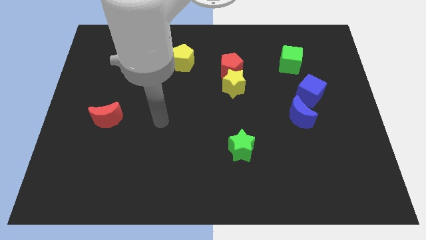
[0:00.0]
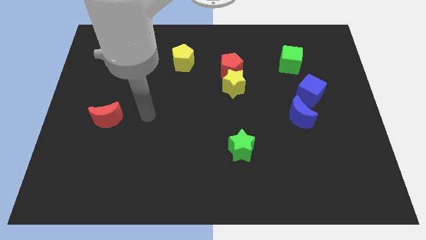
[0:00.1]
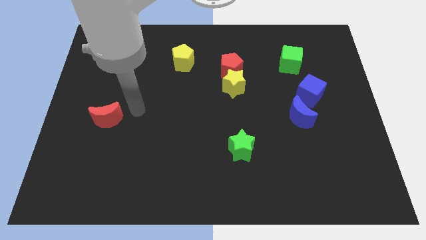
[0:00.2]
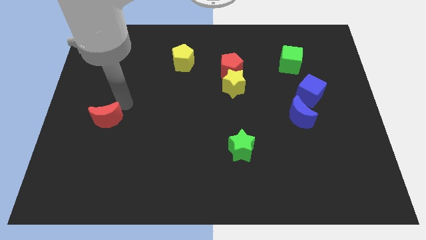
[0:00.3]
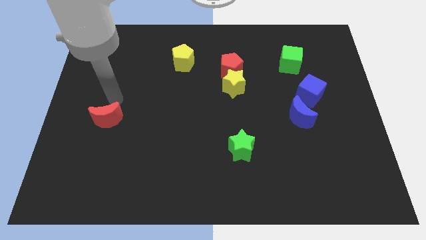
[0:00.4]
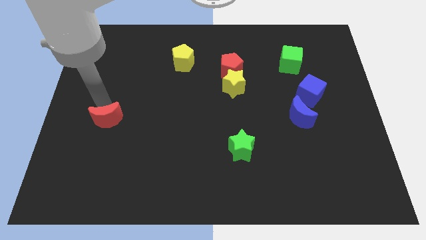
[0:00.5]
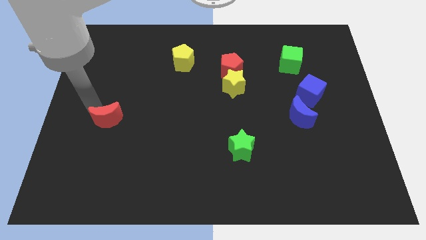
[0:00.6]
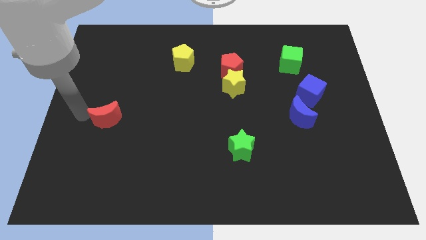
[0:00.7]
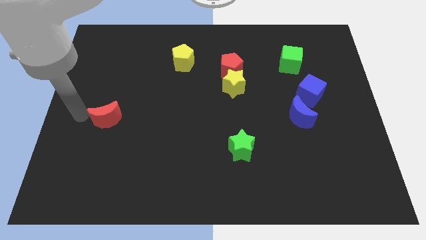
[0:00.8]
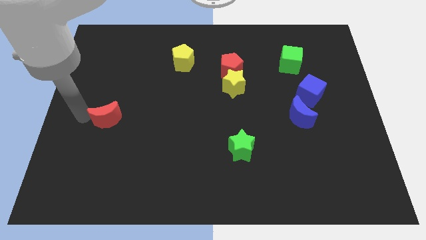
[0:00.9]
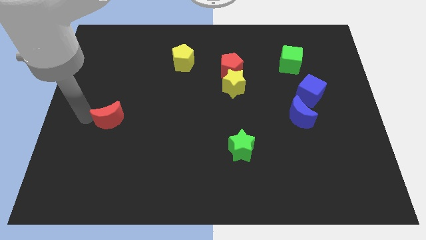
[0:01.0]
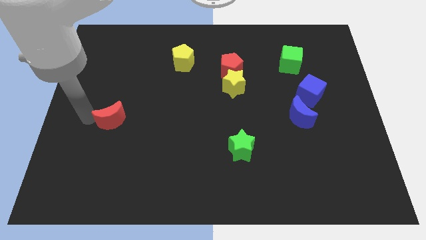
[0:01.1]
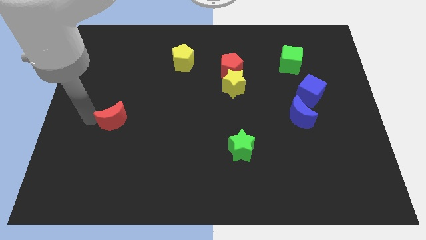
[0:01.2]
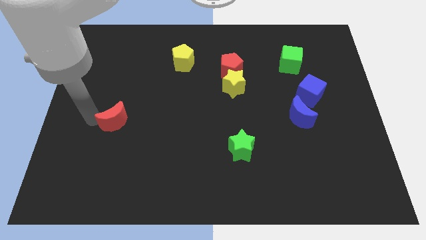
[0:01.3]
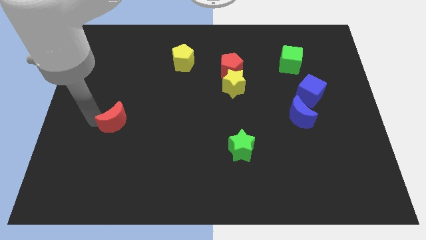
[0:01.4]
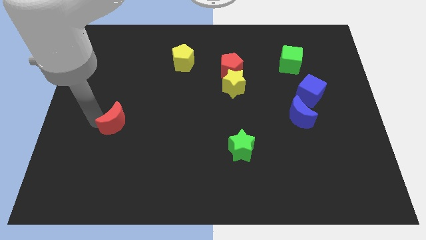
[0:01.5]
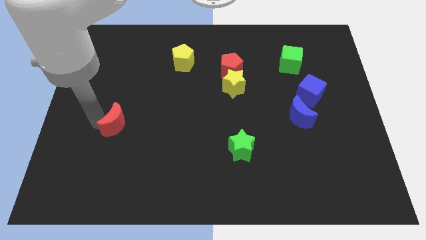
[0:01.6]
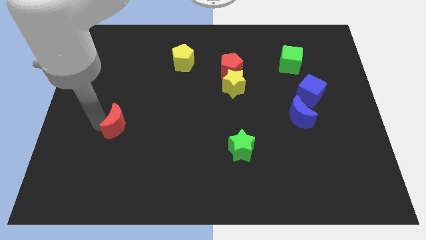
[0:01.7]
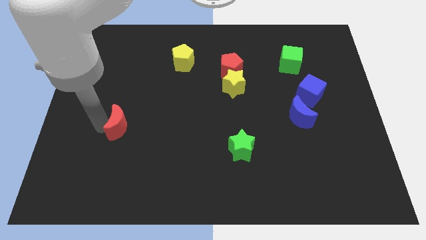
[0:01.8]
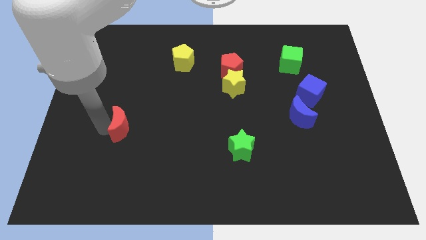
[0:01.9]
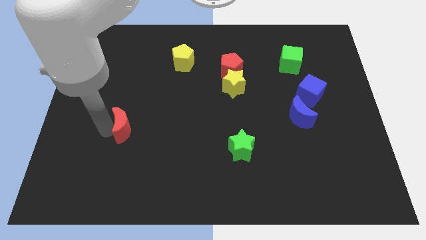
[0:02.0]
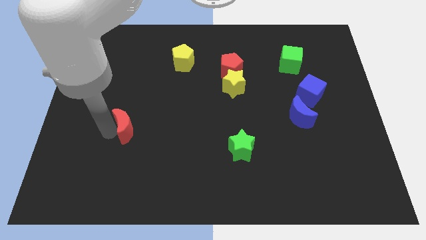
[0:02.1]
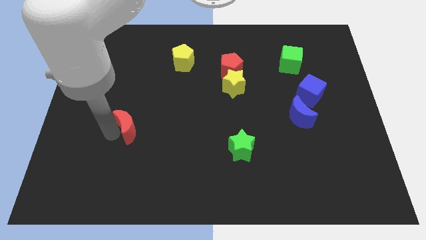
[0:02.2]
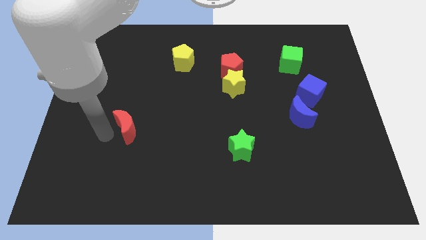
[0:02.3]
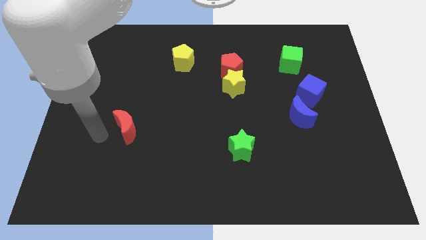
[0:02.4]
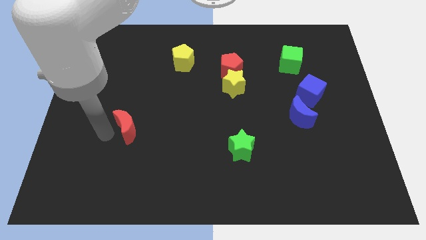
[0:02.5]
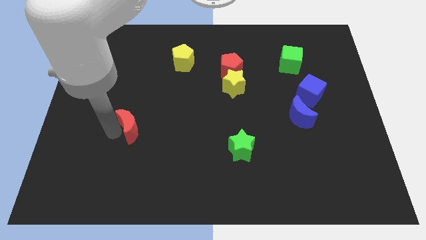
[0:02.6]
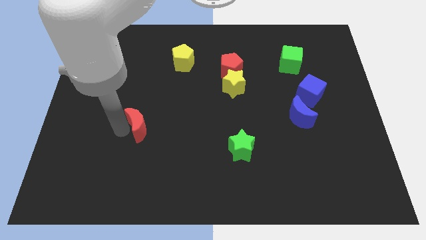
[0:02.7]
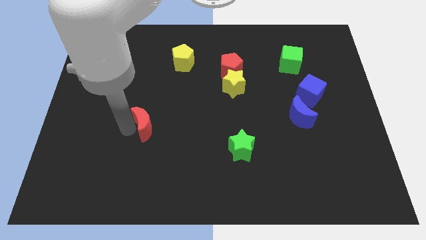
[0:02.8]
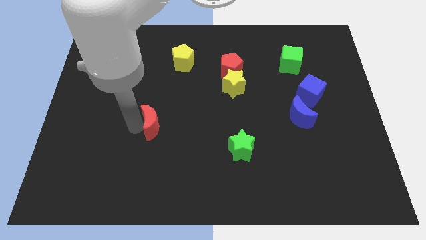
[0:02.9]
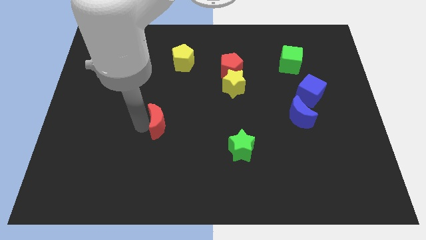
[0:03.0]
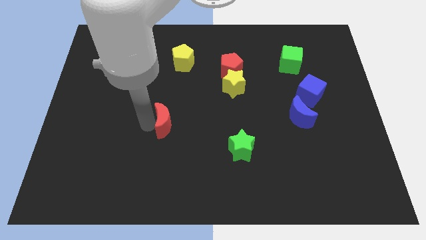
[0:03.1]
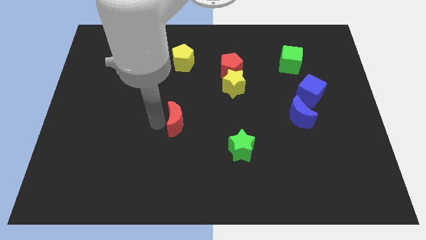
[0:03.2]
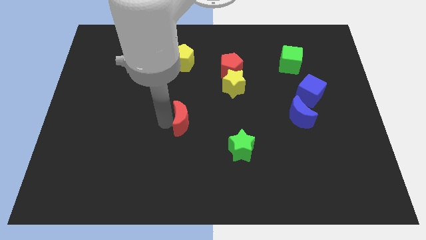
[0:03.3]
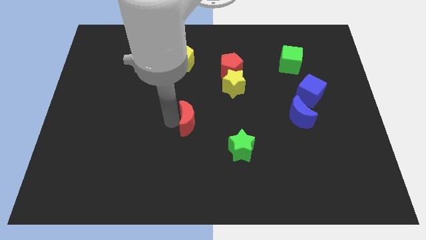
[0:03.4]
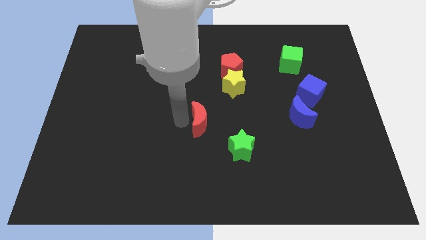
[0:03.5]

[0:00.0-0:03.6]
push the red moon right

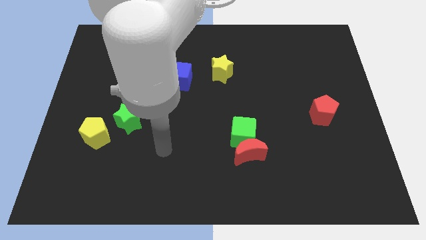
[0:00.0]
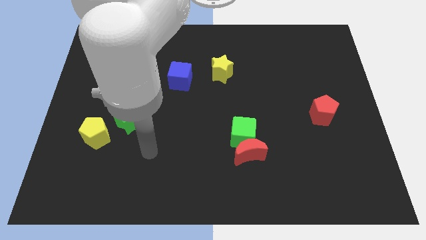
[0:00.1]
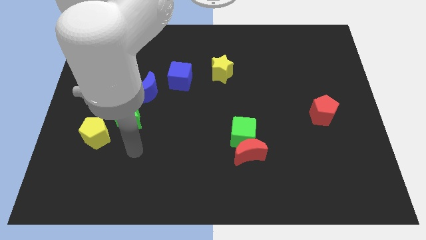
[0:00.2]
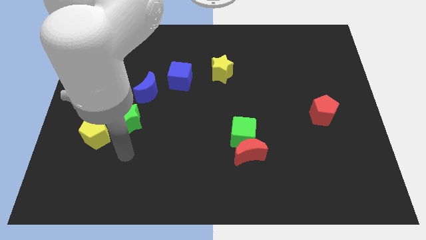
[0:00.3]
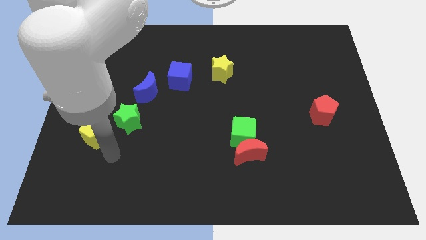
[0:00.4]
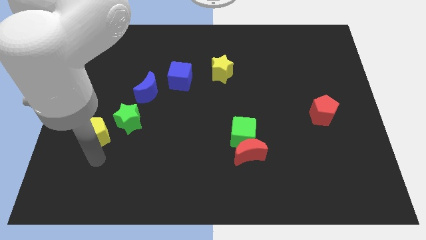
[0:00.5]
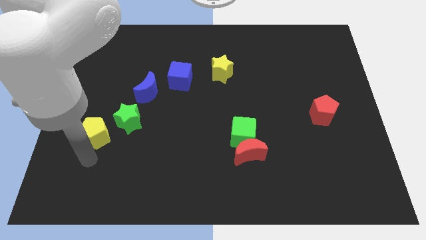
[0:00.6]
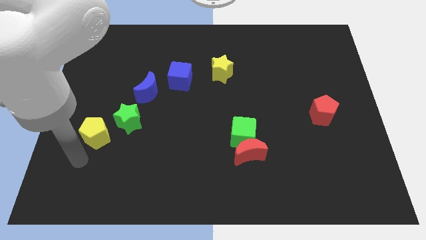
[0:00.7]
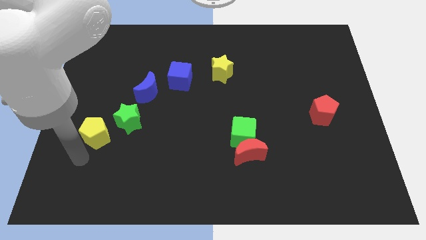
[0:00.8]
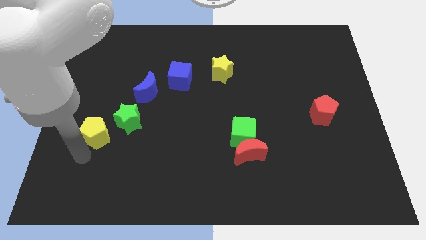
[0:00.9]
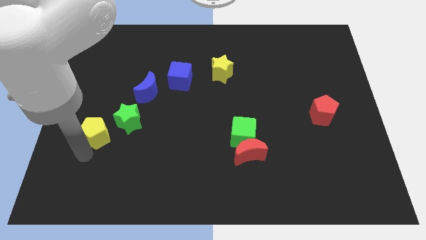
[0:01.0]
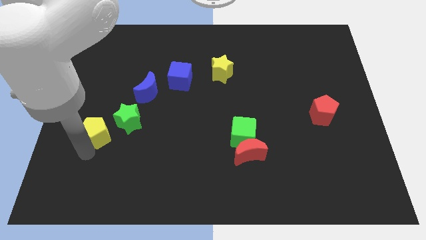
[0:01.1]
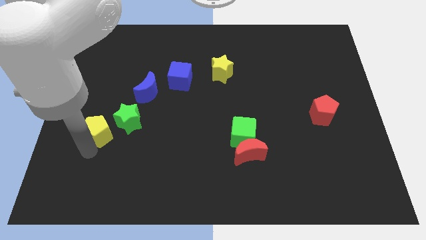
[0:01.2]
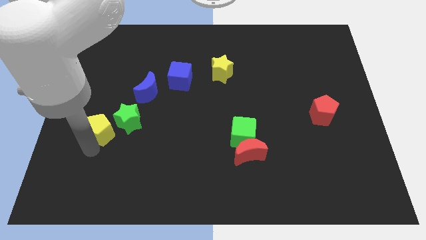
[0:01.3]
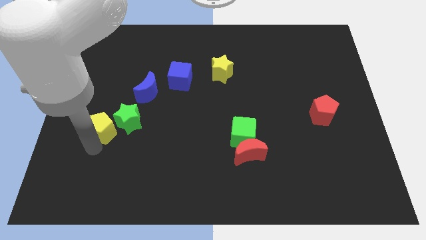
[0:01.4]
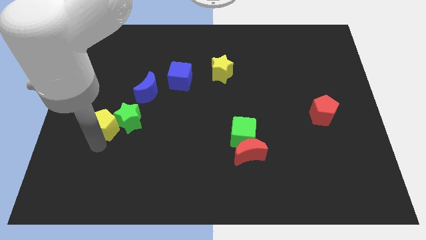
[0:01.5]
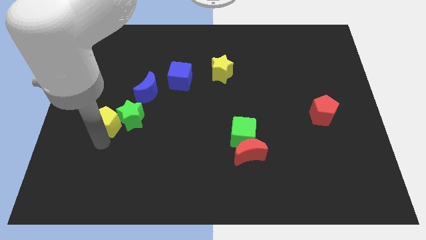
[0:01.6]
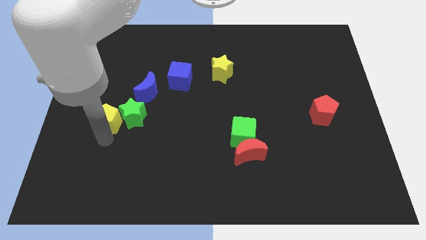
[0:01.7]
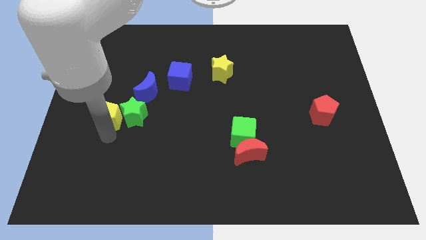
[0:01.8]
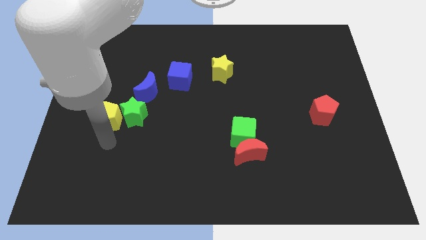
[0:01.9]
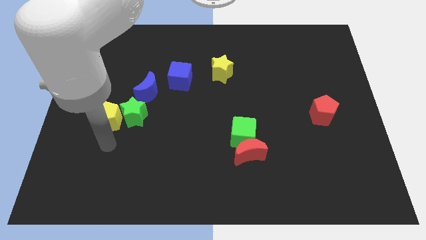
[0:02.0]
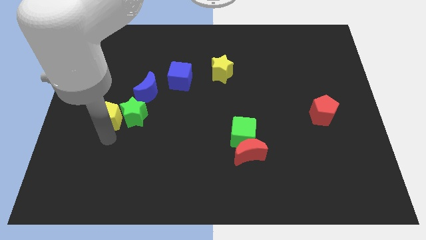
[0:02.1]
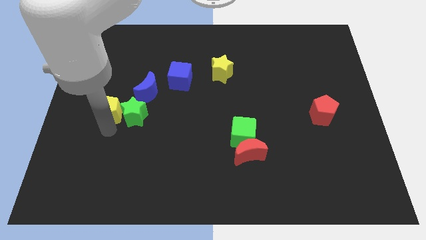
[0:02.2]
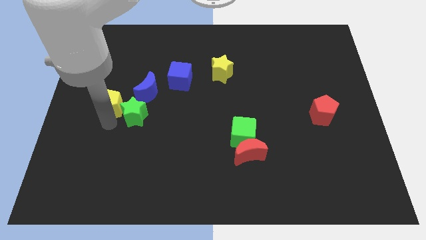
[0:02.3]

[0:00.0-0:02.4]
slightly move the yellow pentagon upwards

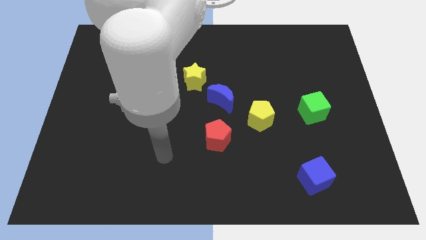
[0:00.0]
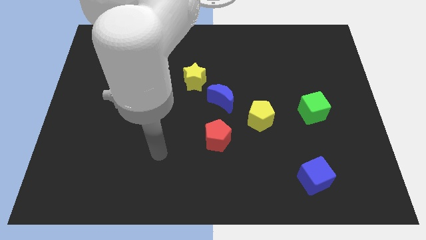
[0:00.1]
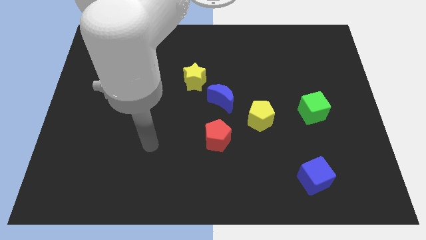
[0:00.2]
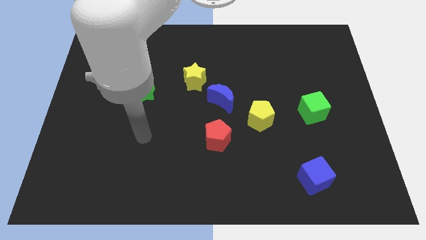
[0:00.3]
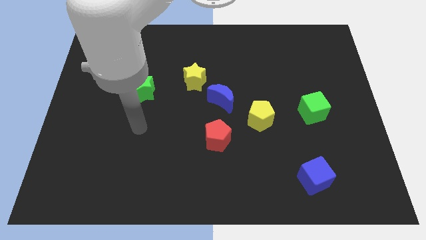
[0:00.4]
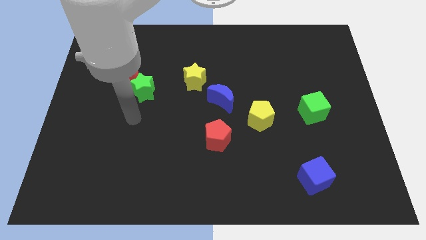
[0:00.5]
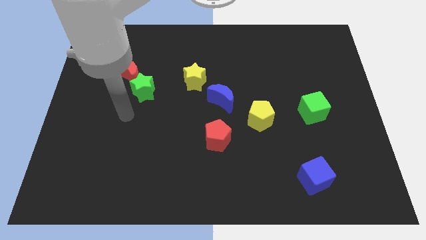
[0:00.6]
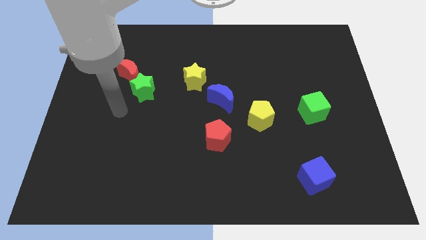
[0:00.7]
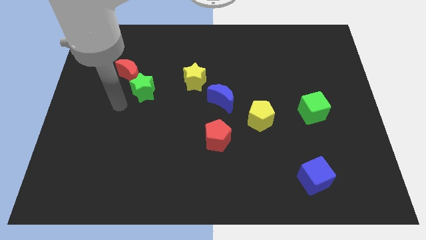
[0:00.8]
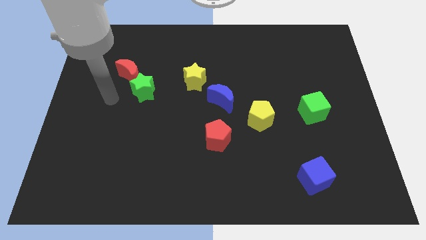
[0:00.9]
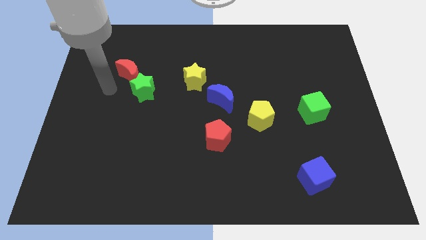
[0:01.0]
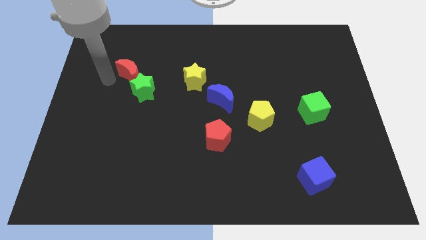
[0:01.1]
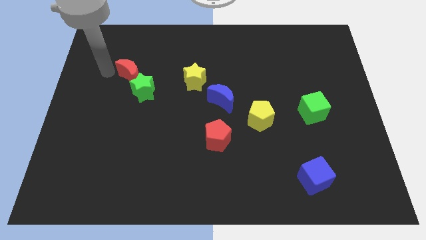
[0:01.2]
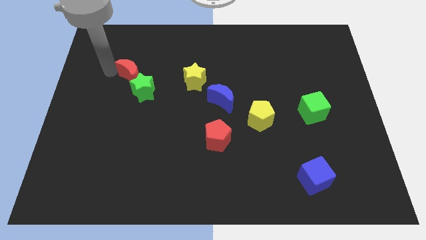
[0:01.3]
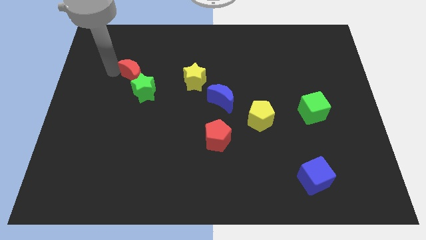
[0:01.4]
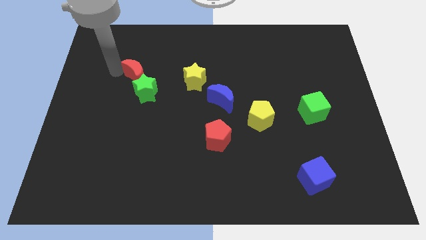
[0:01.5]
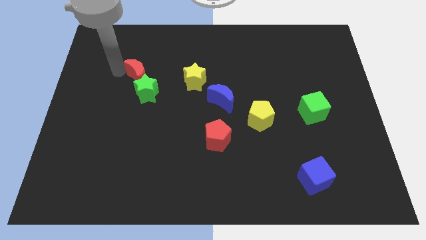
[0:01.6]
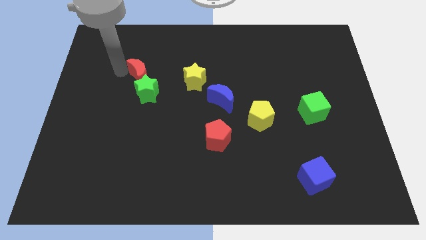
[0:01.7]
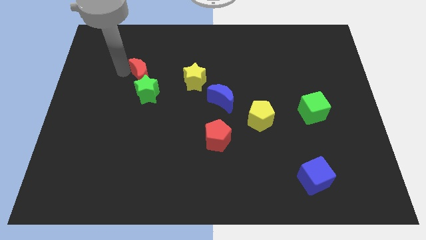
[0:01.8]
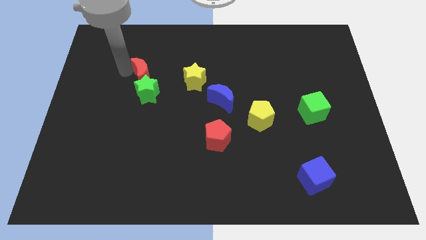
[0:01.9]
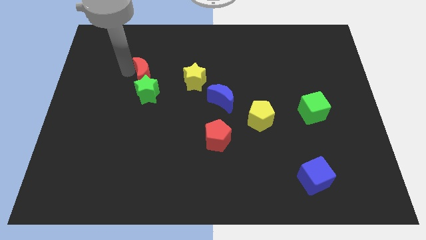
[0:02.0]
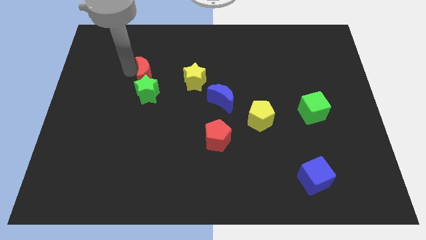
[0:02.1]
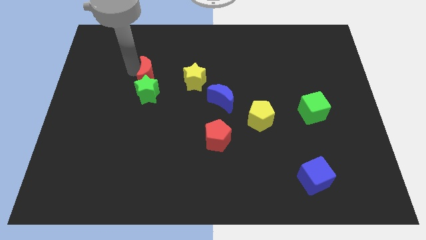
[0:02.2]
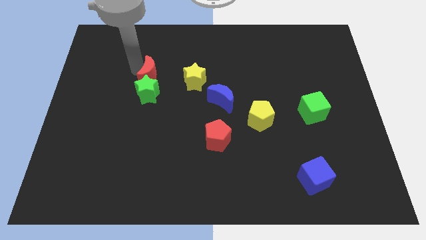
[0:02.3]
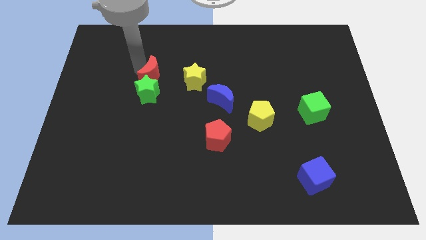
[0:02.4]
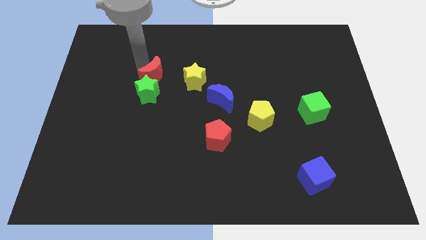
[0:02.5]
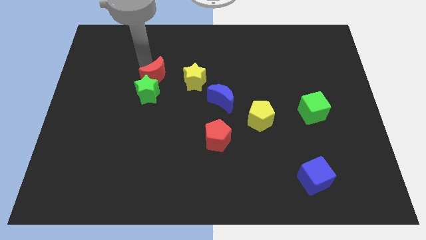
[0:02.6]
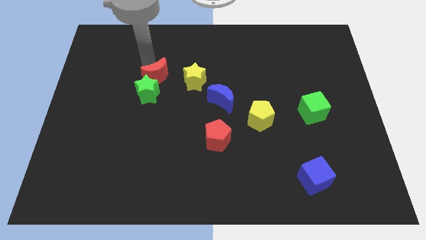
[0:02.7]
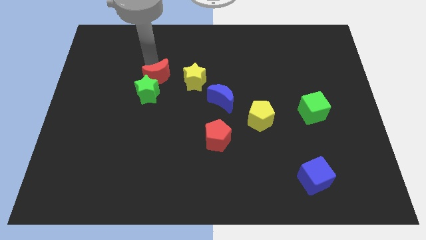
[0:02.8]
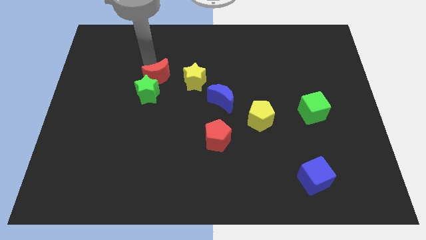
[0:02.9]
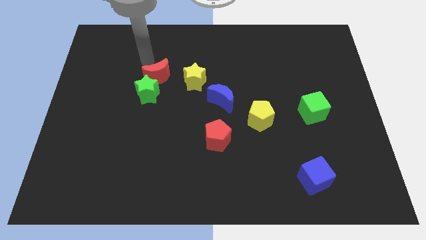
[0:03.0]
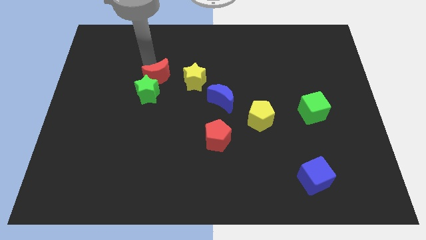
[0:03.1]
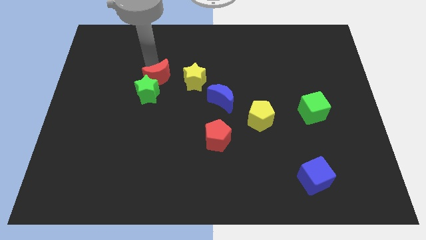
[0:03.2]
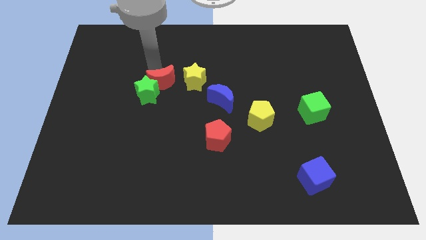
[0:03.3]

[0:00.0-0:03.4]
slightly push the red moon diagonally down and right
